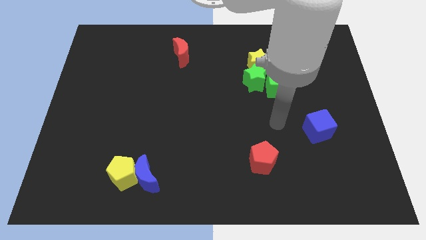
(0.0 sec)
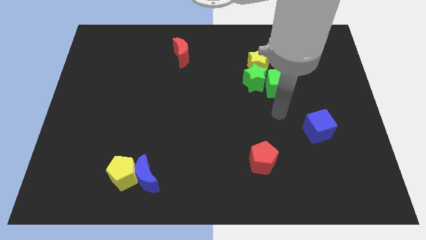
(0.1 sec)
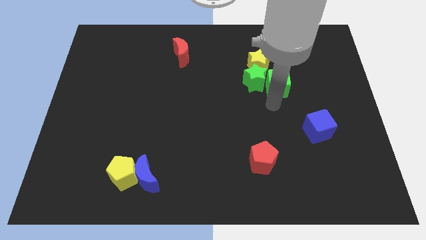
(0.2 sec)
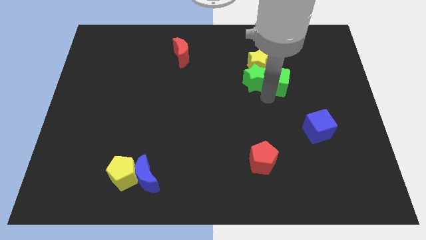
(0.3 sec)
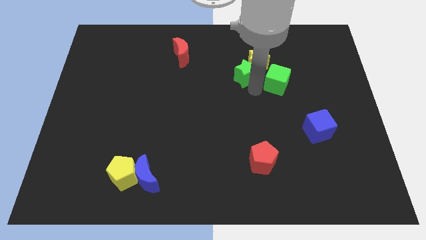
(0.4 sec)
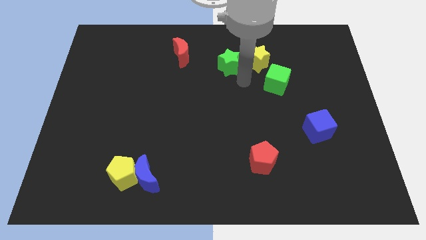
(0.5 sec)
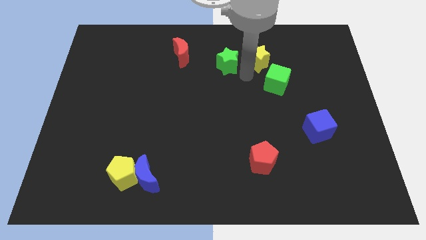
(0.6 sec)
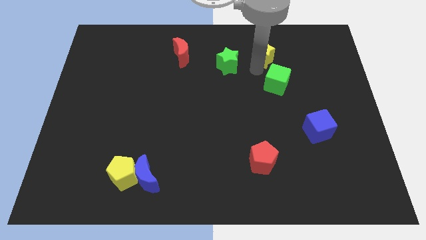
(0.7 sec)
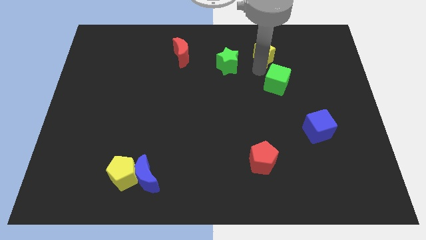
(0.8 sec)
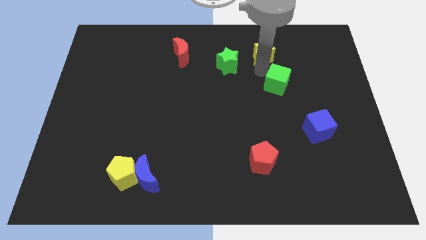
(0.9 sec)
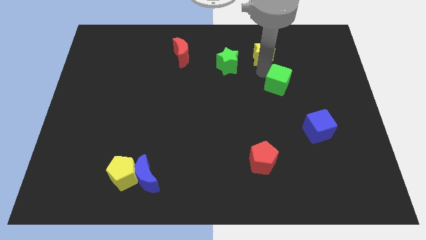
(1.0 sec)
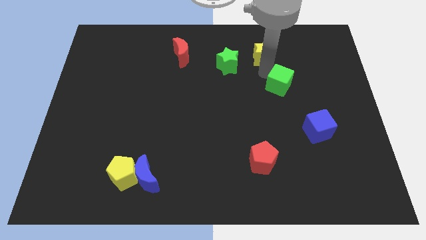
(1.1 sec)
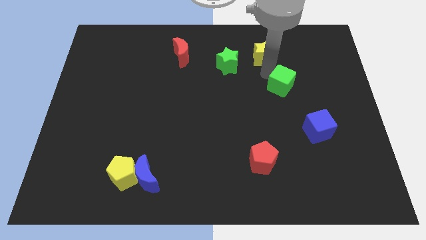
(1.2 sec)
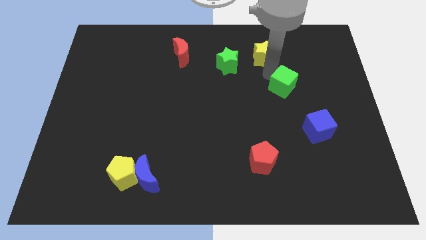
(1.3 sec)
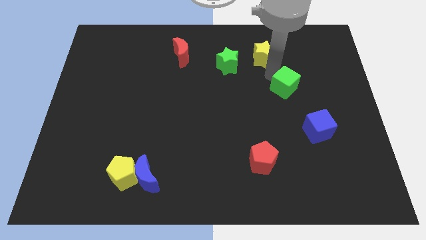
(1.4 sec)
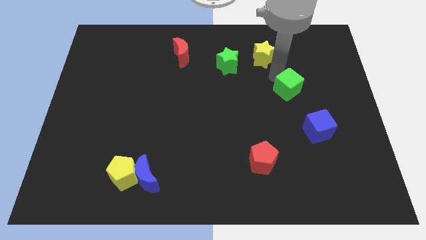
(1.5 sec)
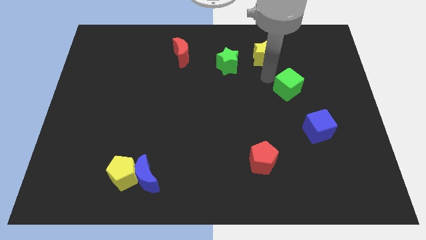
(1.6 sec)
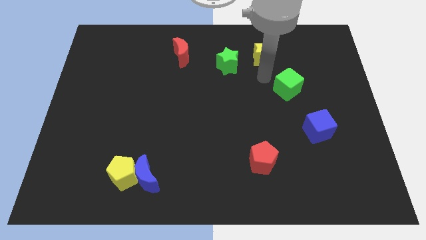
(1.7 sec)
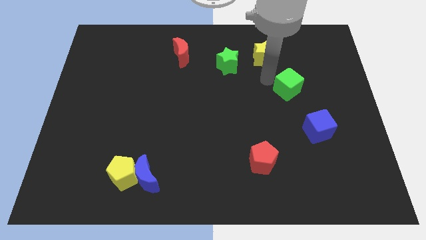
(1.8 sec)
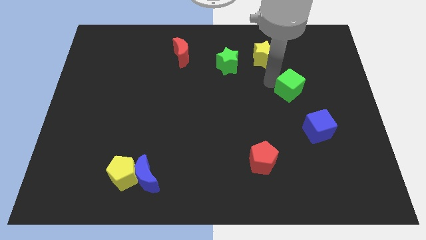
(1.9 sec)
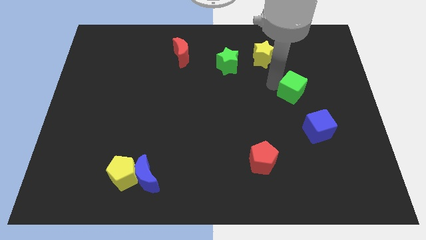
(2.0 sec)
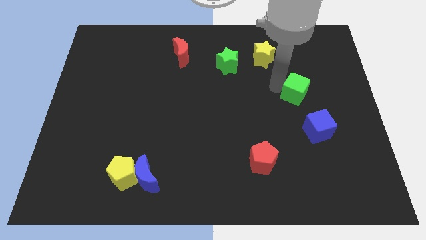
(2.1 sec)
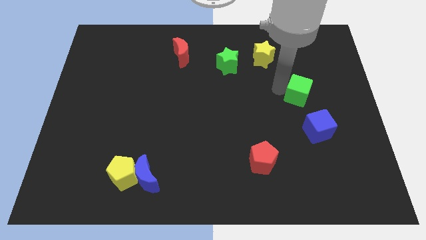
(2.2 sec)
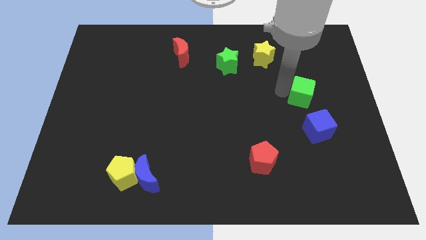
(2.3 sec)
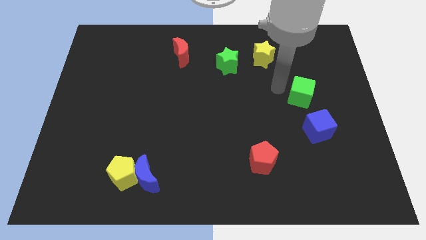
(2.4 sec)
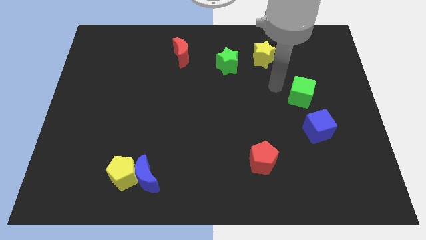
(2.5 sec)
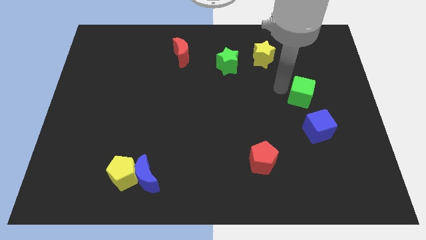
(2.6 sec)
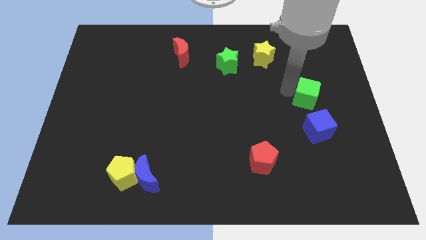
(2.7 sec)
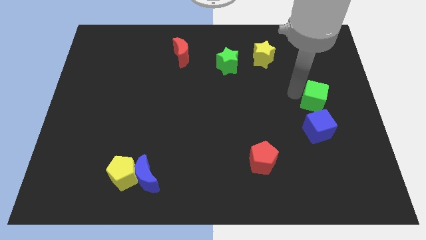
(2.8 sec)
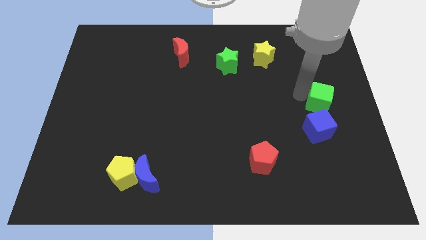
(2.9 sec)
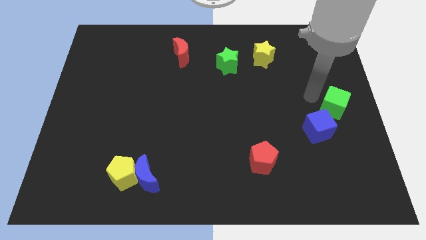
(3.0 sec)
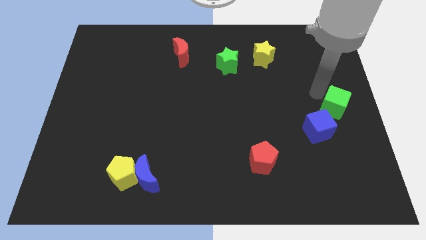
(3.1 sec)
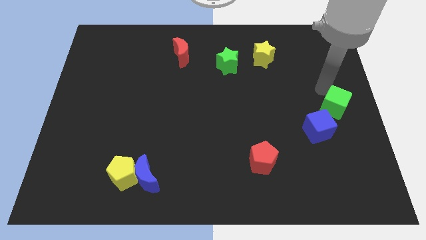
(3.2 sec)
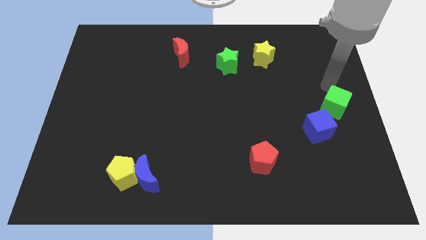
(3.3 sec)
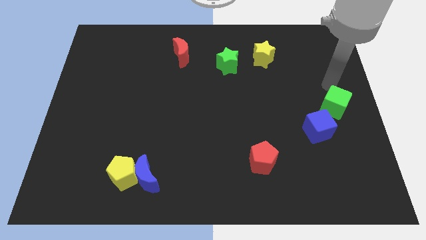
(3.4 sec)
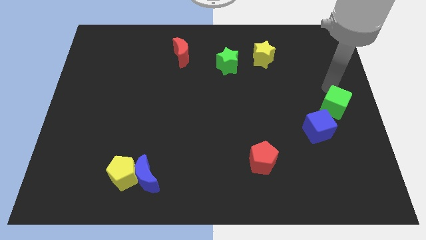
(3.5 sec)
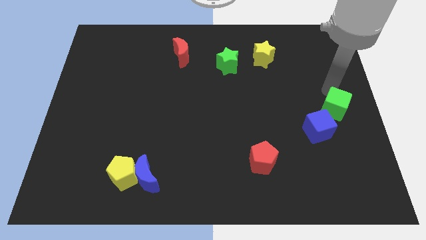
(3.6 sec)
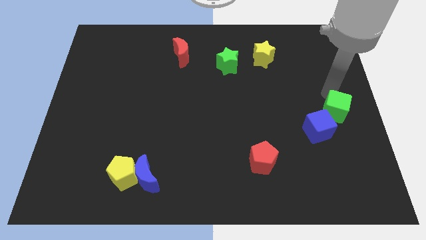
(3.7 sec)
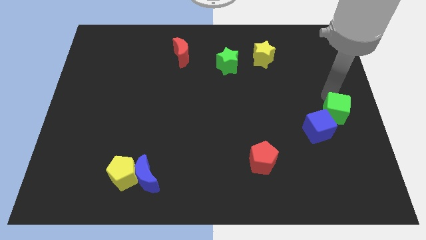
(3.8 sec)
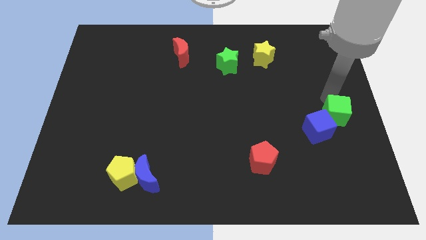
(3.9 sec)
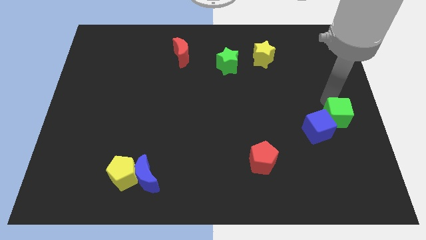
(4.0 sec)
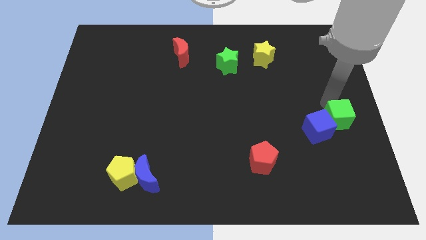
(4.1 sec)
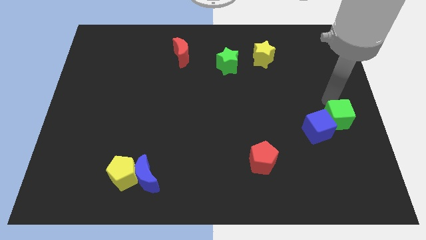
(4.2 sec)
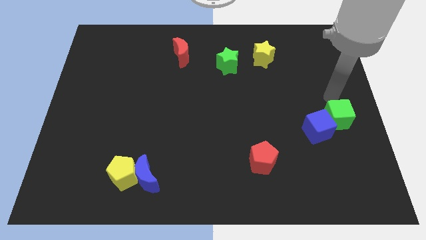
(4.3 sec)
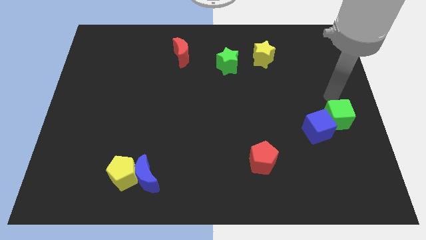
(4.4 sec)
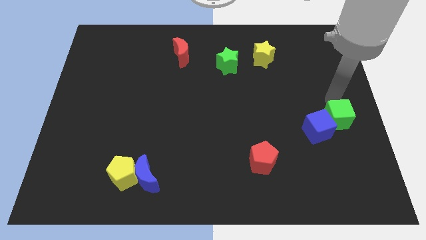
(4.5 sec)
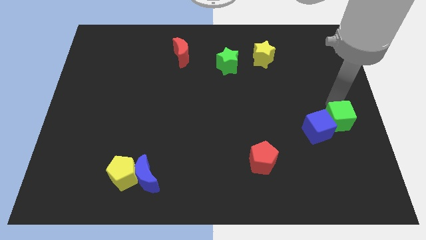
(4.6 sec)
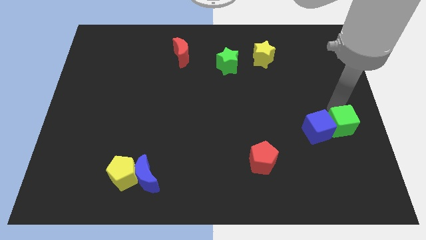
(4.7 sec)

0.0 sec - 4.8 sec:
move the green cube to the bottom right of the blue cube

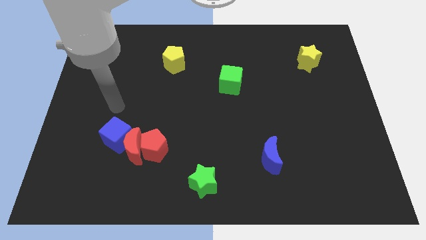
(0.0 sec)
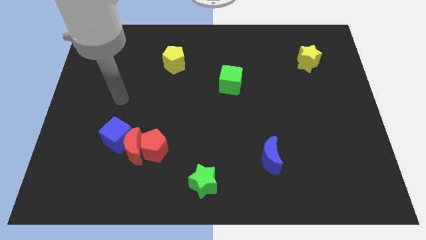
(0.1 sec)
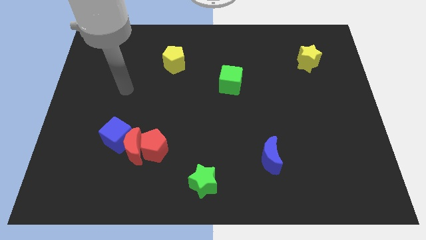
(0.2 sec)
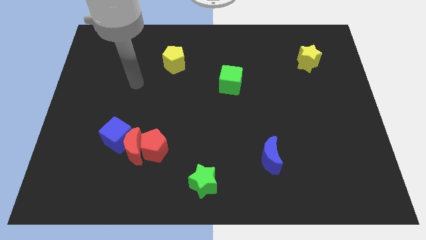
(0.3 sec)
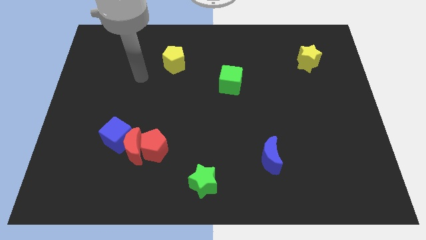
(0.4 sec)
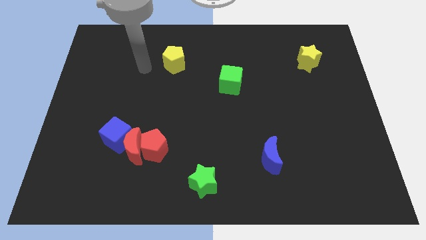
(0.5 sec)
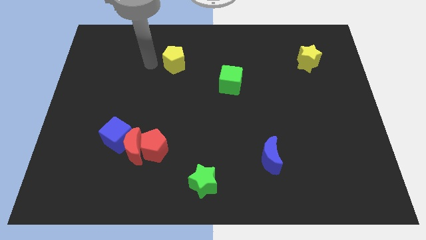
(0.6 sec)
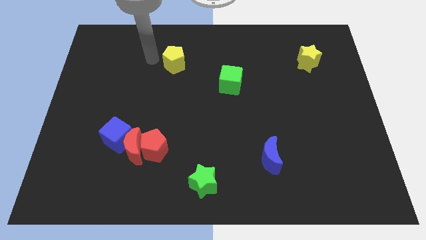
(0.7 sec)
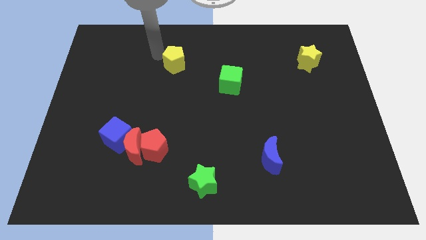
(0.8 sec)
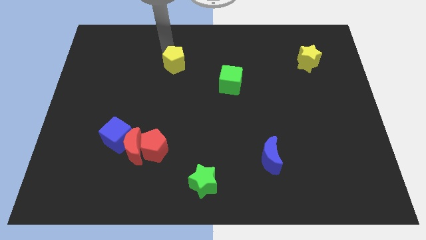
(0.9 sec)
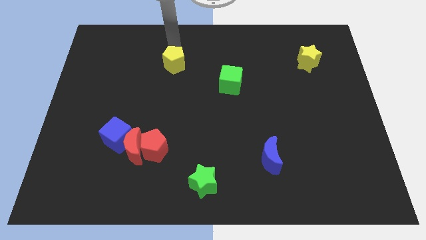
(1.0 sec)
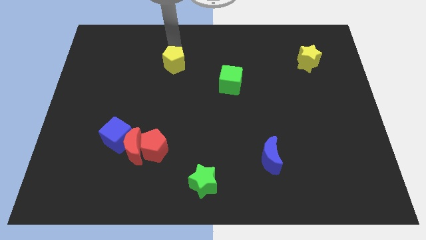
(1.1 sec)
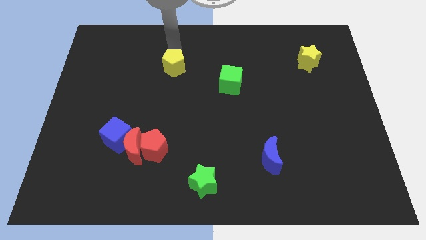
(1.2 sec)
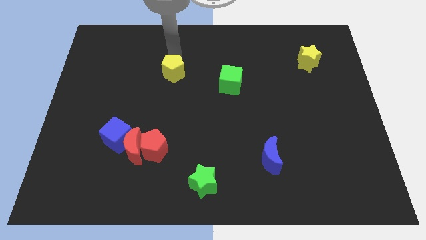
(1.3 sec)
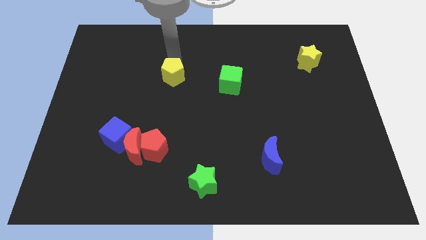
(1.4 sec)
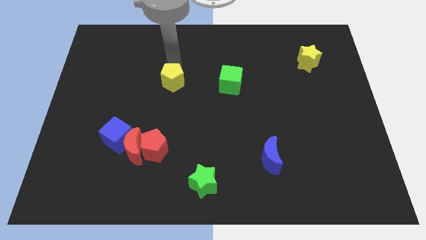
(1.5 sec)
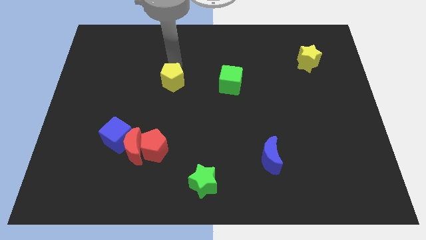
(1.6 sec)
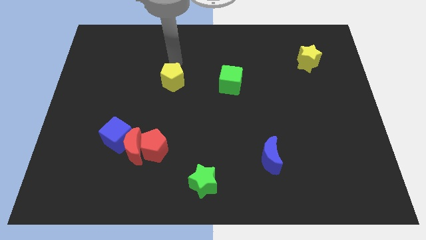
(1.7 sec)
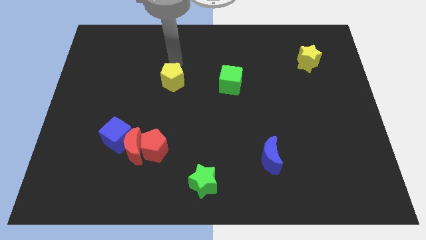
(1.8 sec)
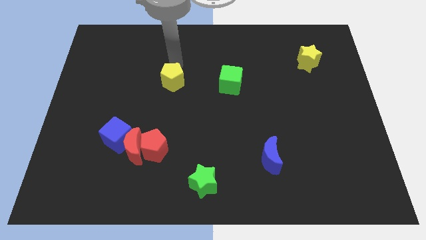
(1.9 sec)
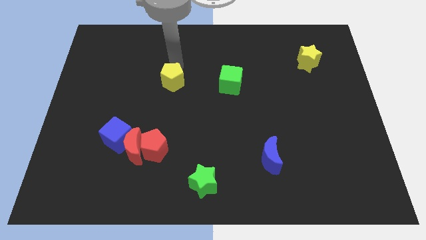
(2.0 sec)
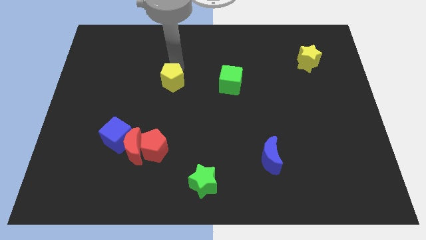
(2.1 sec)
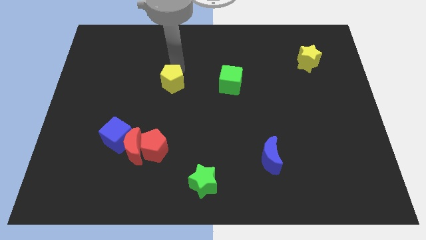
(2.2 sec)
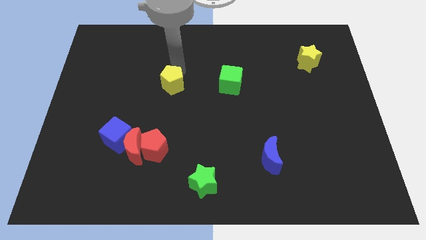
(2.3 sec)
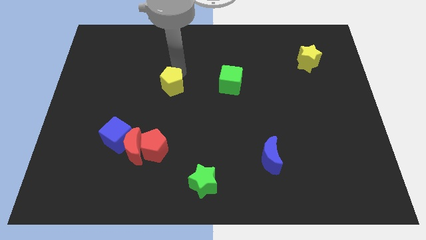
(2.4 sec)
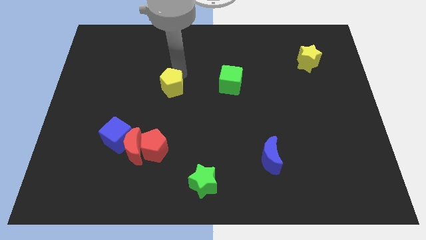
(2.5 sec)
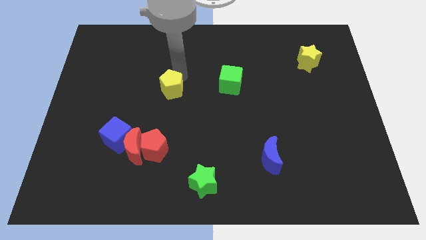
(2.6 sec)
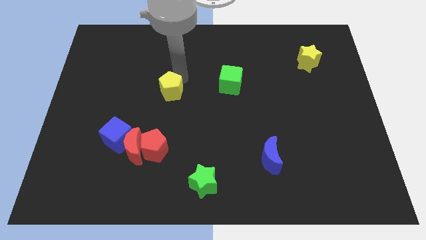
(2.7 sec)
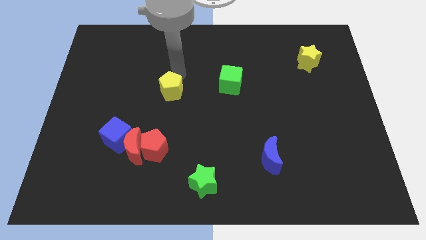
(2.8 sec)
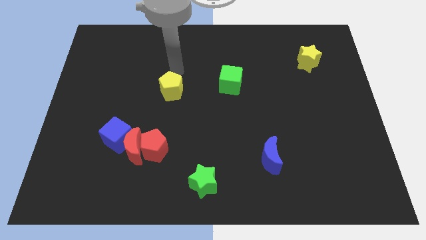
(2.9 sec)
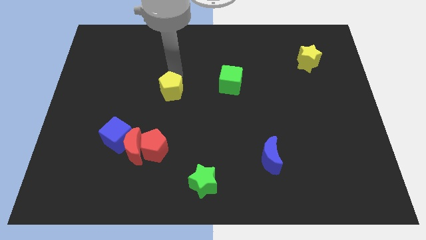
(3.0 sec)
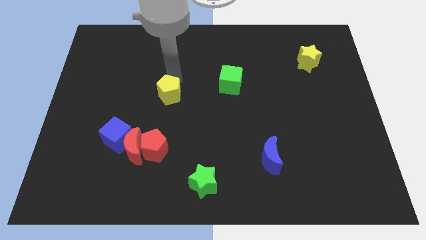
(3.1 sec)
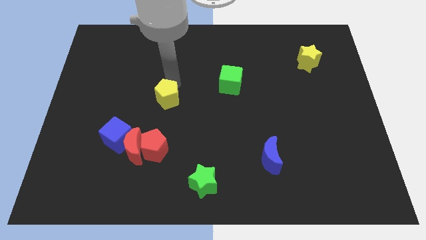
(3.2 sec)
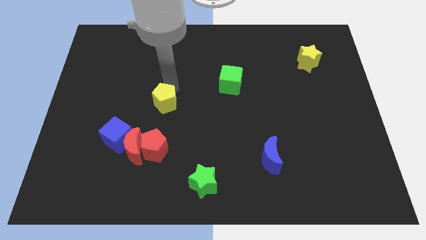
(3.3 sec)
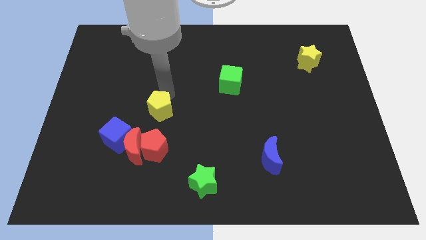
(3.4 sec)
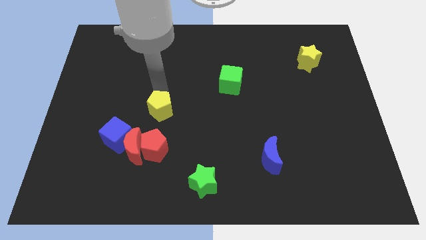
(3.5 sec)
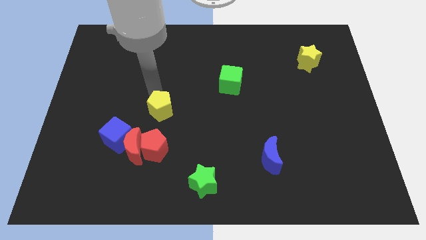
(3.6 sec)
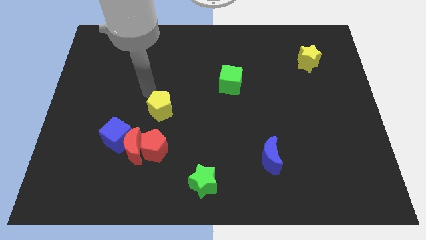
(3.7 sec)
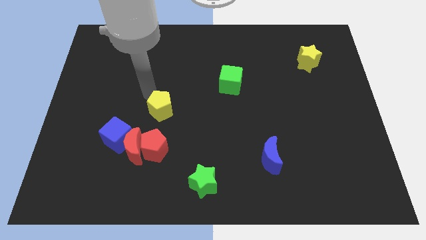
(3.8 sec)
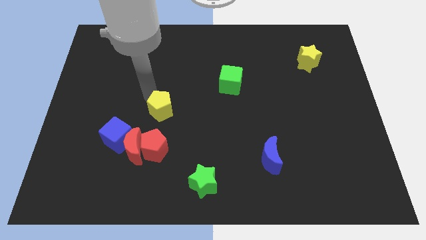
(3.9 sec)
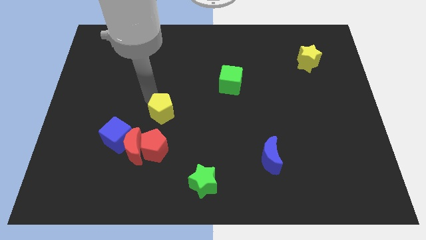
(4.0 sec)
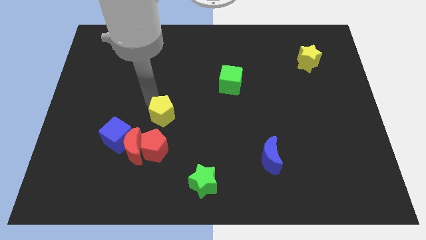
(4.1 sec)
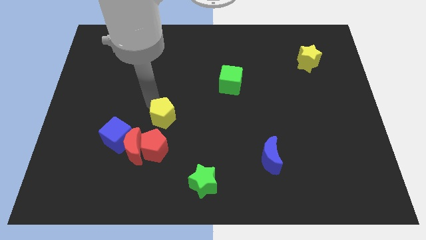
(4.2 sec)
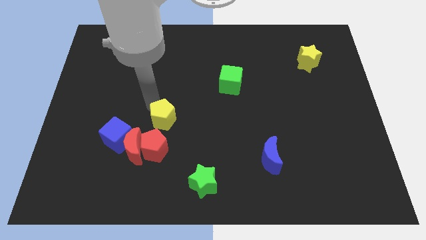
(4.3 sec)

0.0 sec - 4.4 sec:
push the yellow pentagon diagonally up and to the right of the red pentagon
